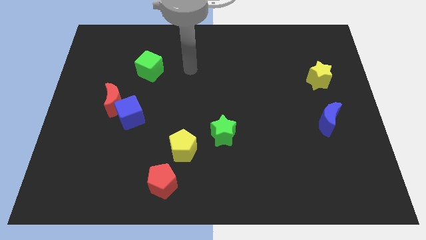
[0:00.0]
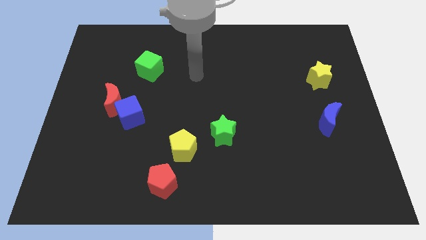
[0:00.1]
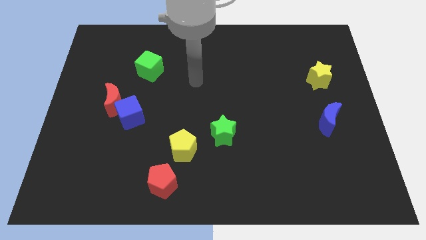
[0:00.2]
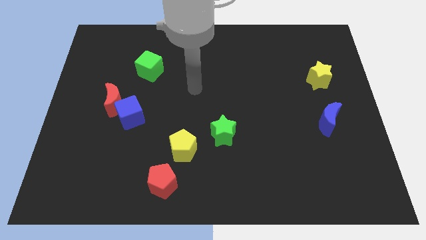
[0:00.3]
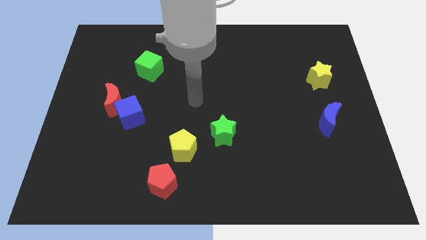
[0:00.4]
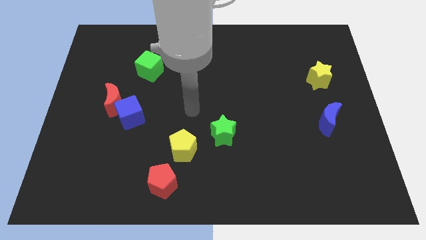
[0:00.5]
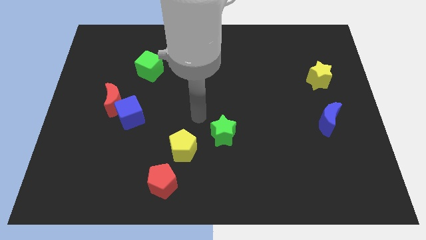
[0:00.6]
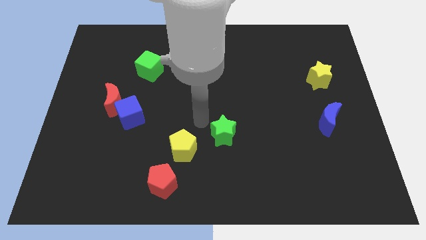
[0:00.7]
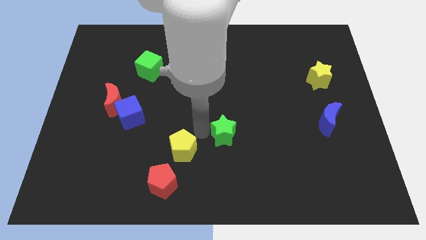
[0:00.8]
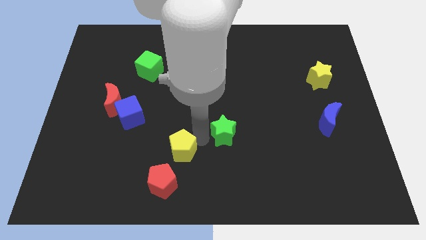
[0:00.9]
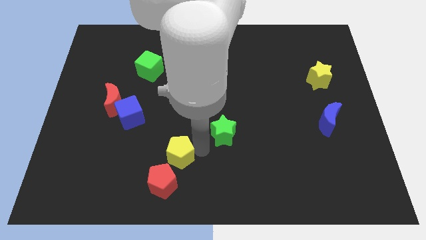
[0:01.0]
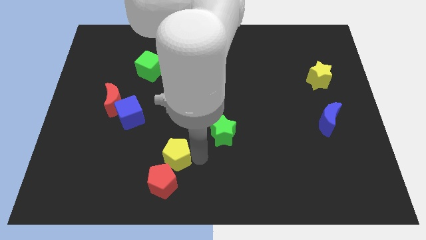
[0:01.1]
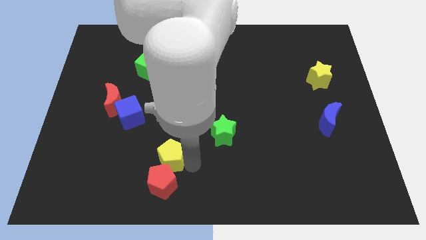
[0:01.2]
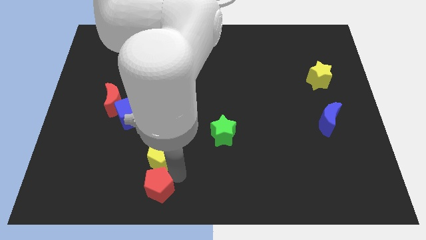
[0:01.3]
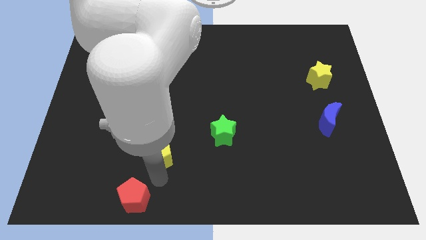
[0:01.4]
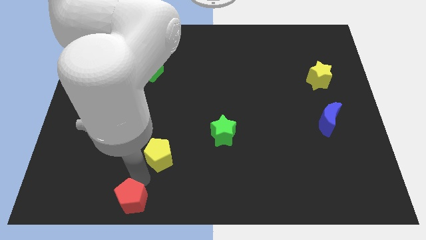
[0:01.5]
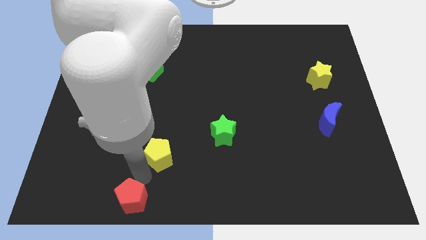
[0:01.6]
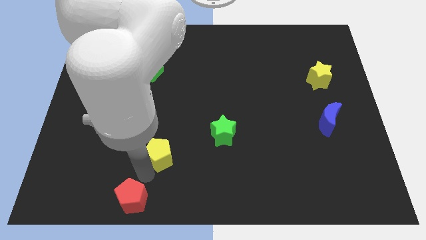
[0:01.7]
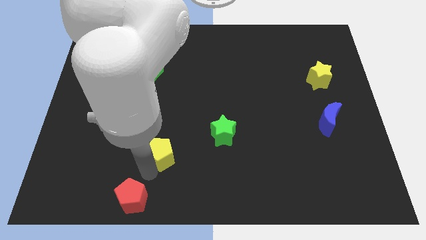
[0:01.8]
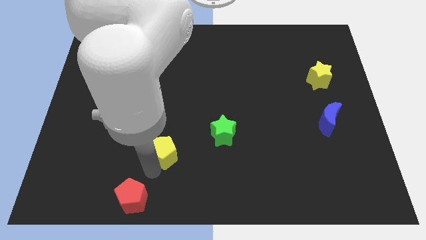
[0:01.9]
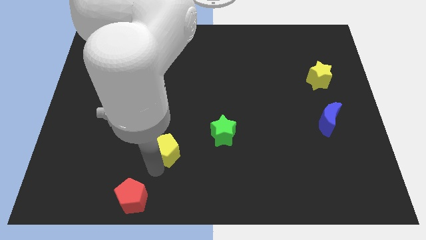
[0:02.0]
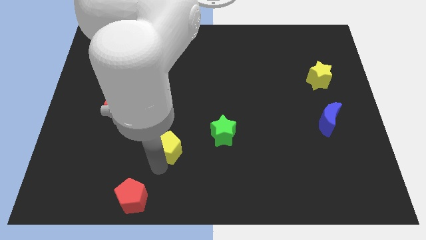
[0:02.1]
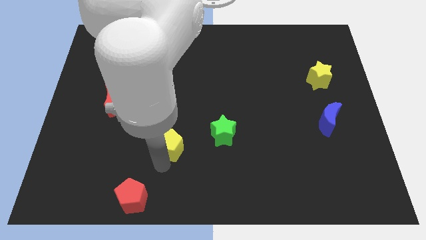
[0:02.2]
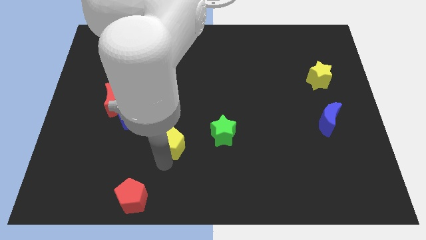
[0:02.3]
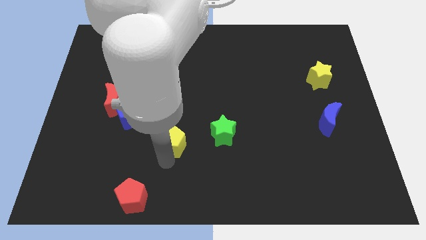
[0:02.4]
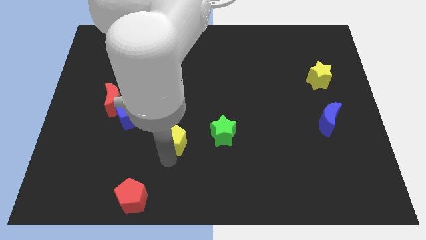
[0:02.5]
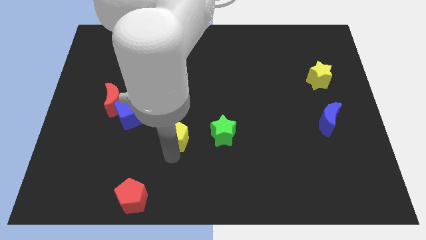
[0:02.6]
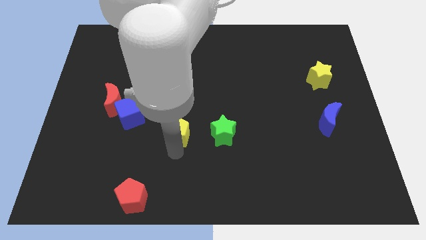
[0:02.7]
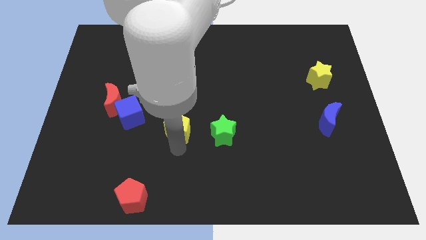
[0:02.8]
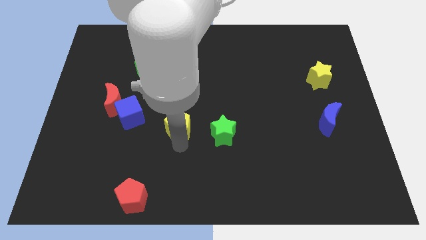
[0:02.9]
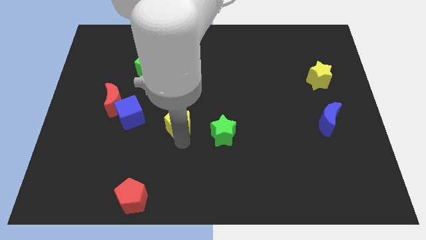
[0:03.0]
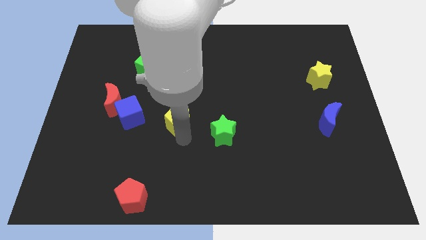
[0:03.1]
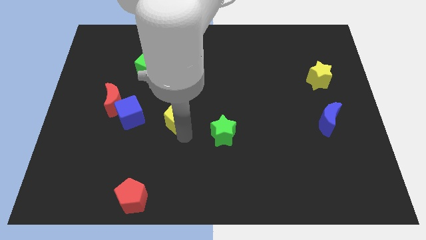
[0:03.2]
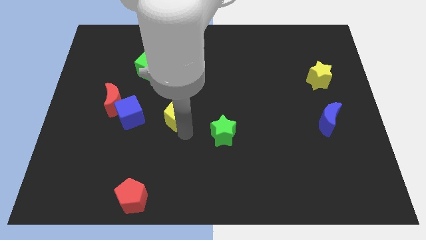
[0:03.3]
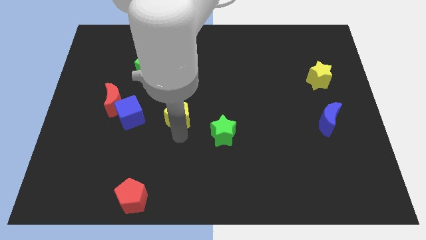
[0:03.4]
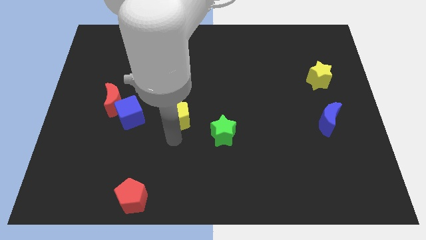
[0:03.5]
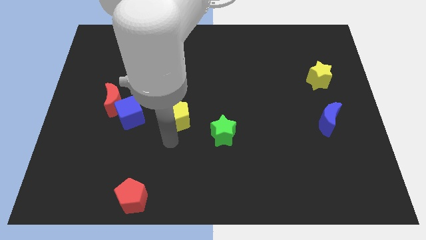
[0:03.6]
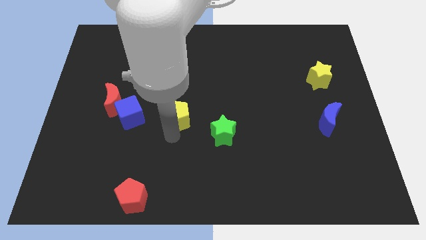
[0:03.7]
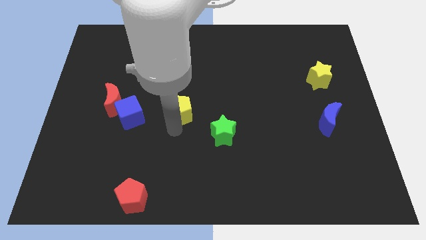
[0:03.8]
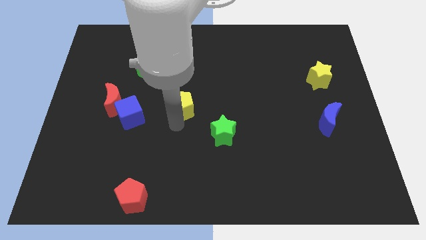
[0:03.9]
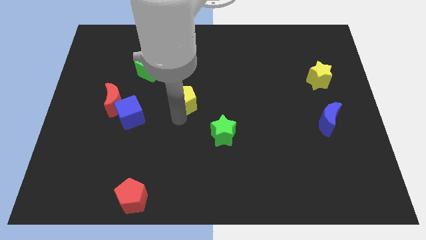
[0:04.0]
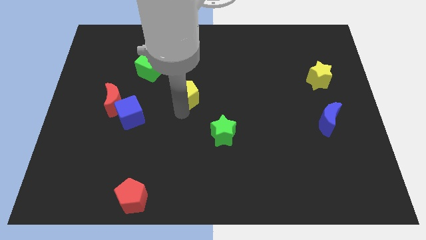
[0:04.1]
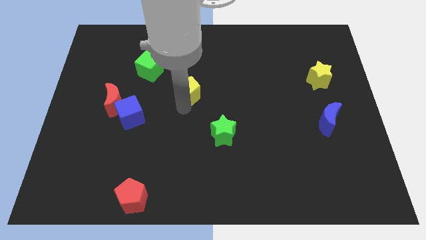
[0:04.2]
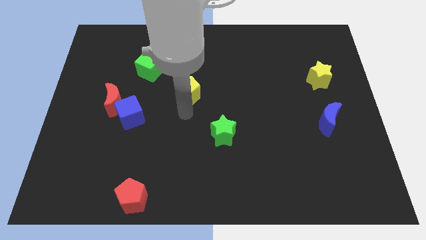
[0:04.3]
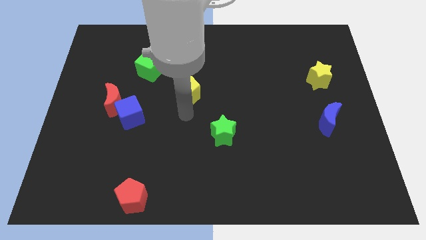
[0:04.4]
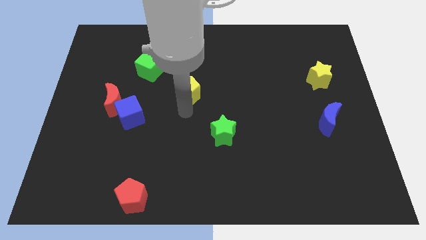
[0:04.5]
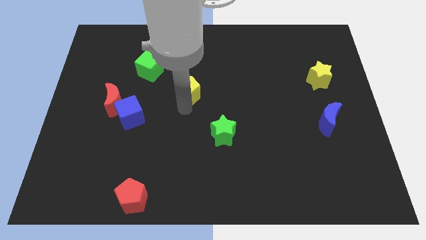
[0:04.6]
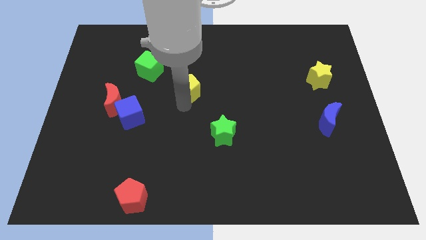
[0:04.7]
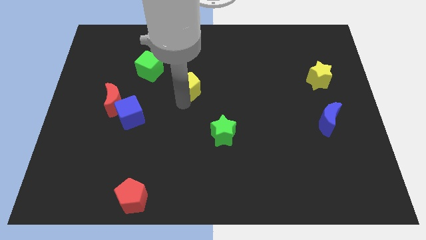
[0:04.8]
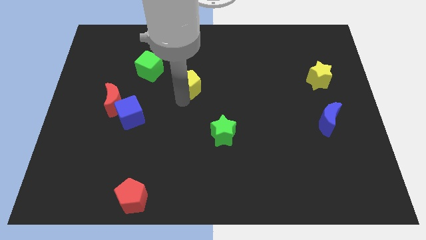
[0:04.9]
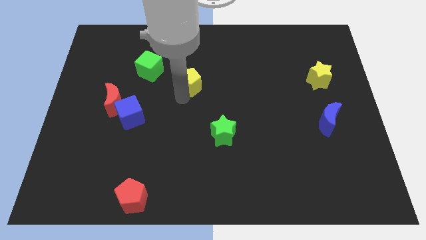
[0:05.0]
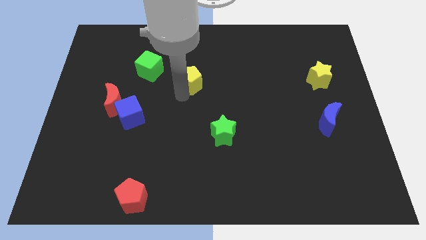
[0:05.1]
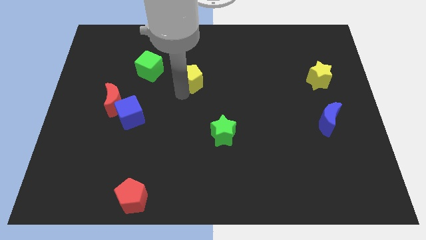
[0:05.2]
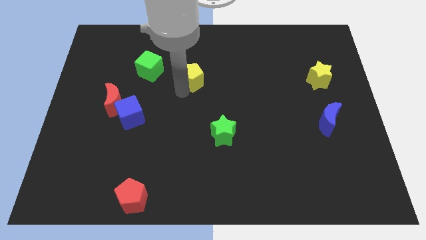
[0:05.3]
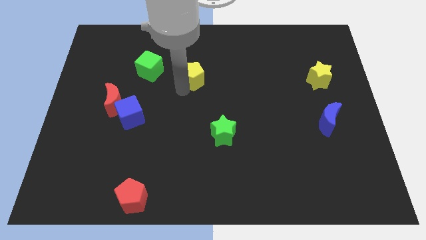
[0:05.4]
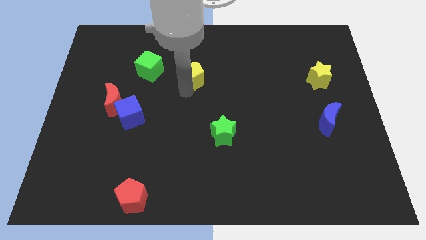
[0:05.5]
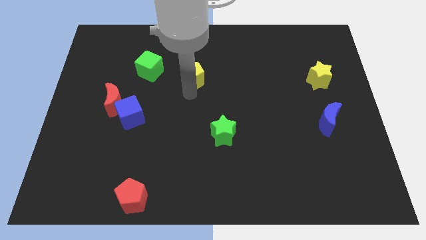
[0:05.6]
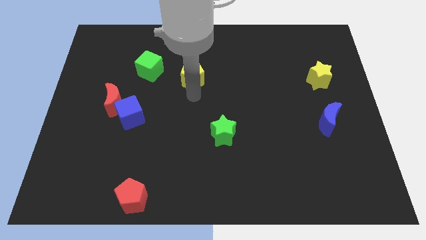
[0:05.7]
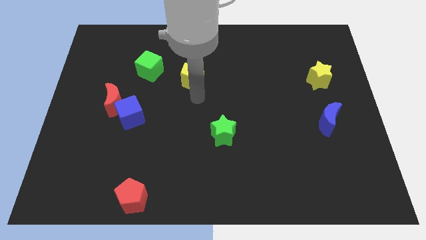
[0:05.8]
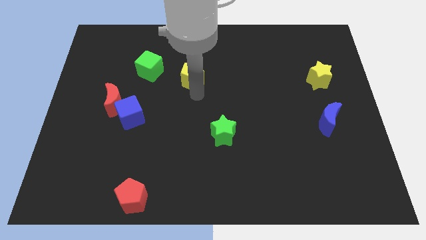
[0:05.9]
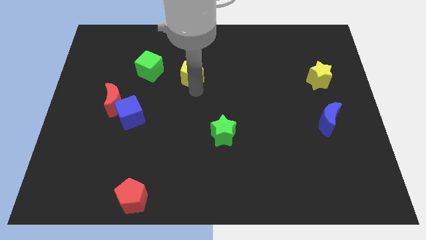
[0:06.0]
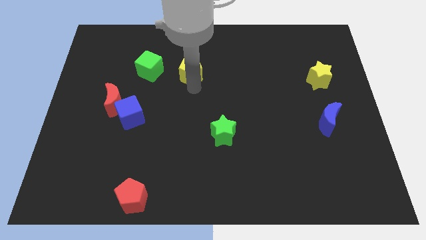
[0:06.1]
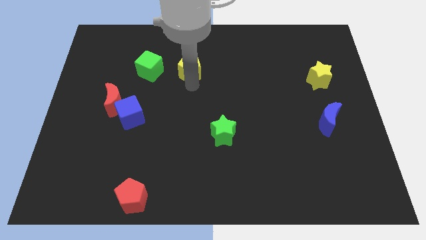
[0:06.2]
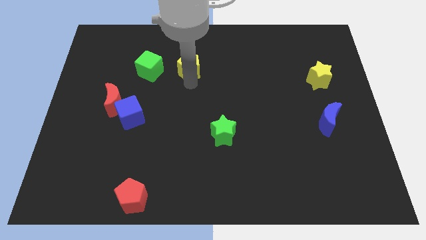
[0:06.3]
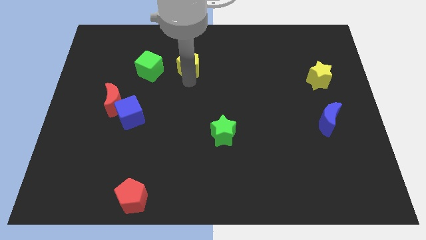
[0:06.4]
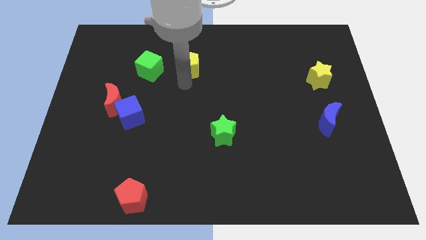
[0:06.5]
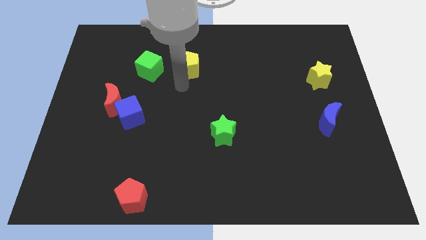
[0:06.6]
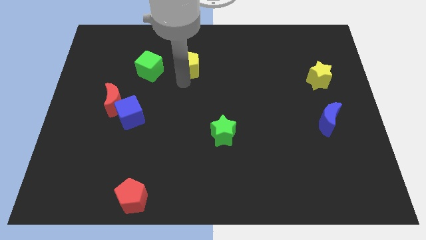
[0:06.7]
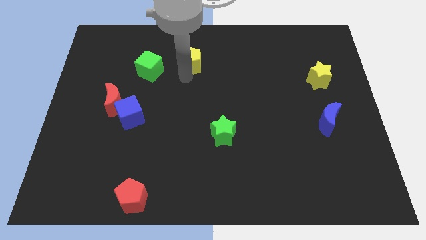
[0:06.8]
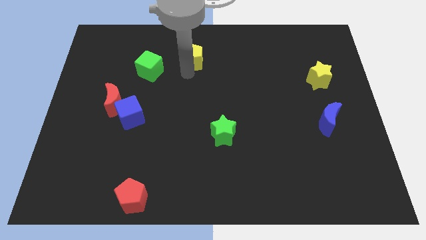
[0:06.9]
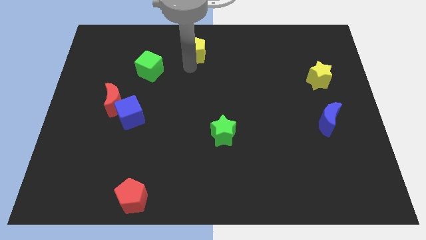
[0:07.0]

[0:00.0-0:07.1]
slide the yellow pentagon to the top
